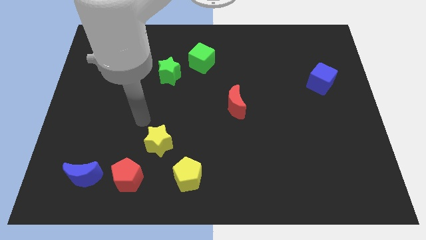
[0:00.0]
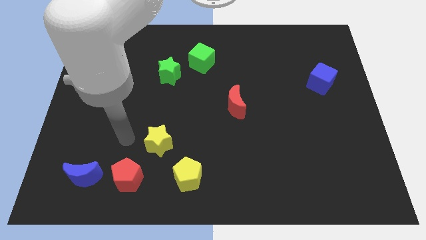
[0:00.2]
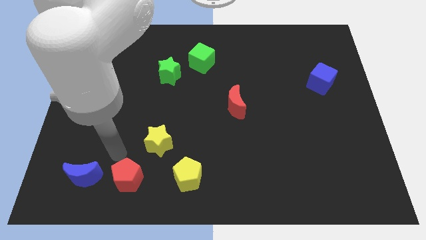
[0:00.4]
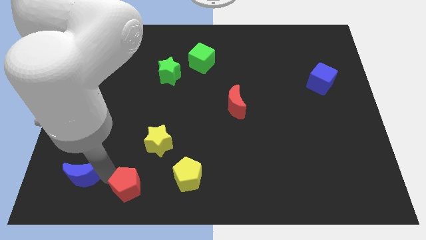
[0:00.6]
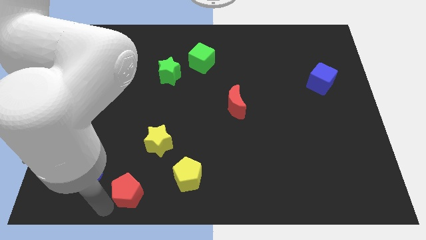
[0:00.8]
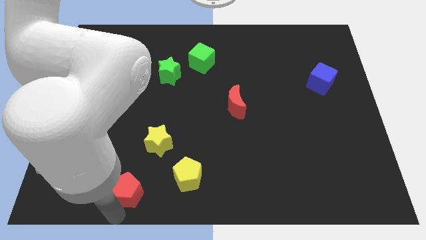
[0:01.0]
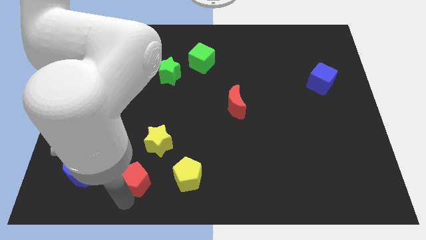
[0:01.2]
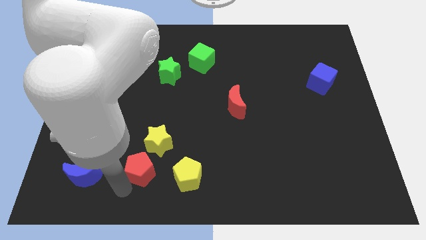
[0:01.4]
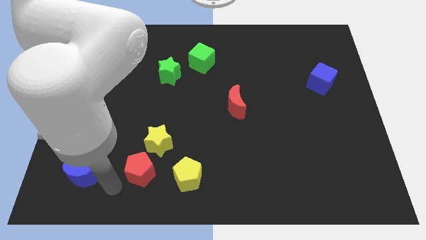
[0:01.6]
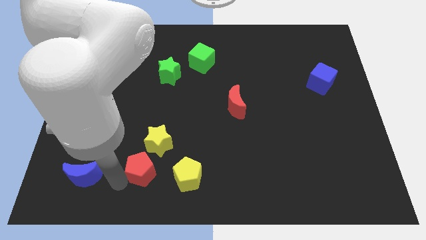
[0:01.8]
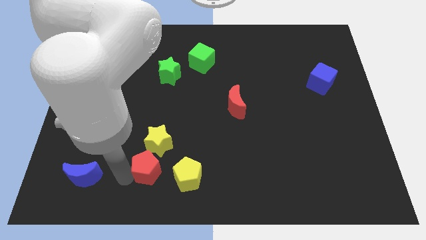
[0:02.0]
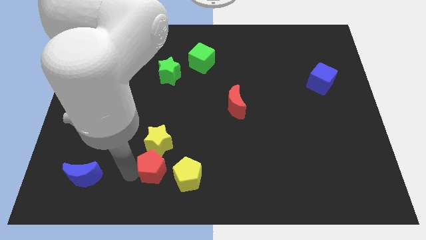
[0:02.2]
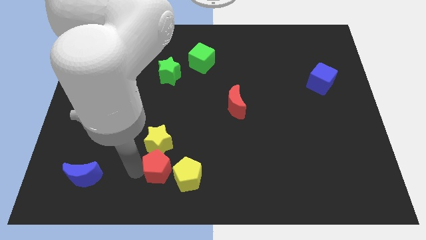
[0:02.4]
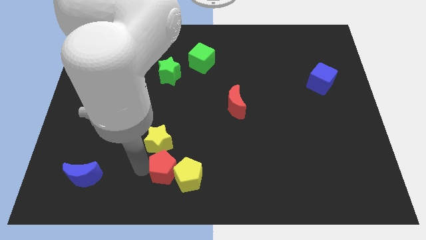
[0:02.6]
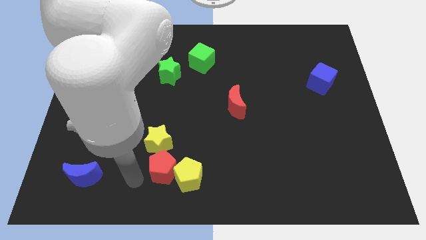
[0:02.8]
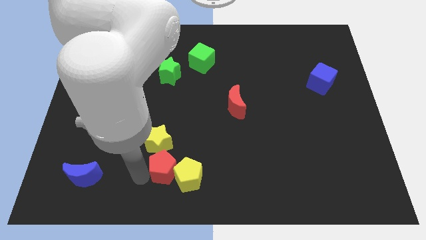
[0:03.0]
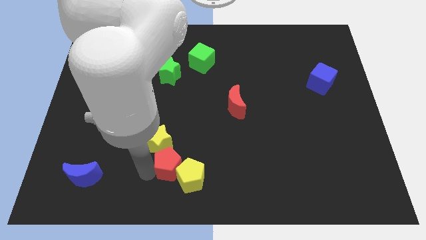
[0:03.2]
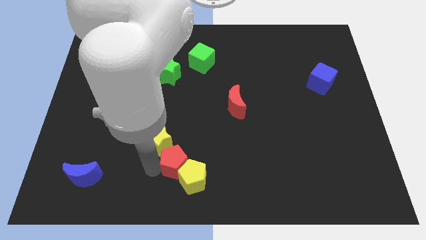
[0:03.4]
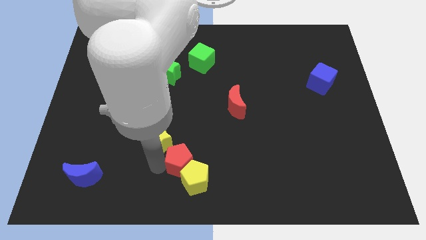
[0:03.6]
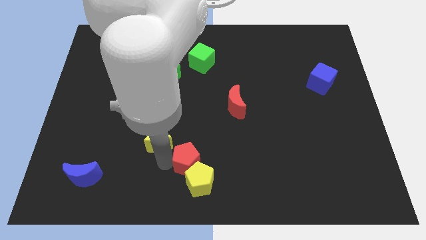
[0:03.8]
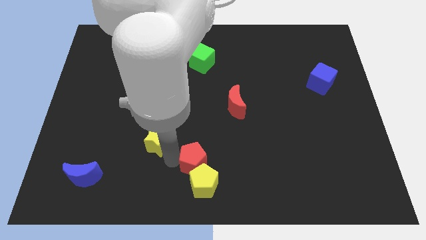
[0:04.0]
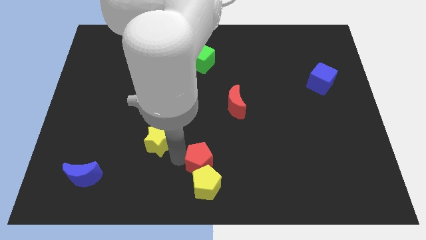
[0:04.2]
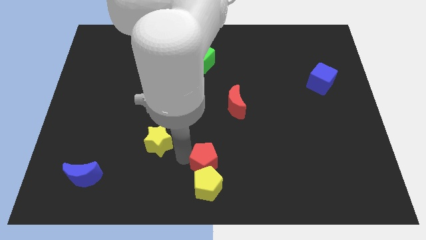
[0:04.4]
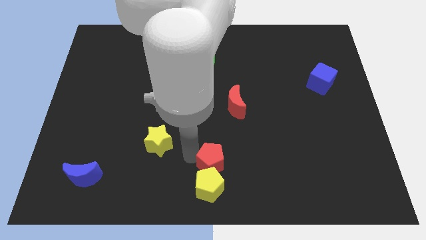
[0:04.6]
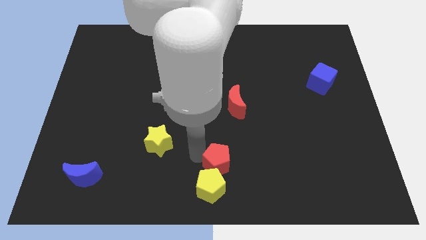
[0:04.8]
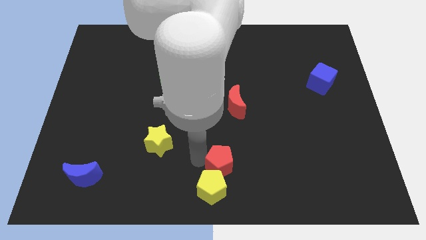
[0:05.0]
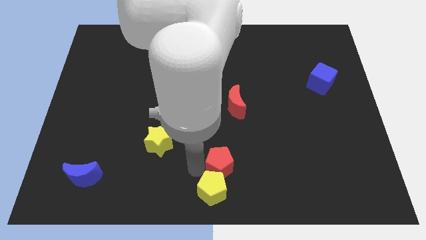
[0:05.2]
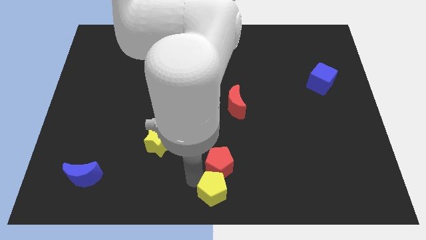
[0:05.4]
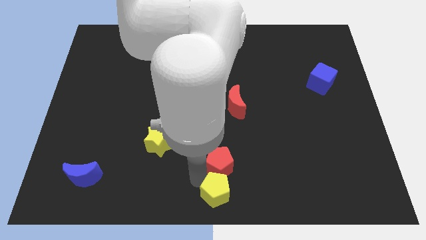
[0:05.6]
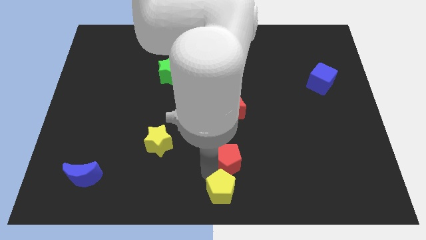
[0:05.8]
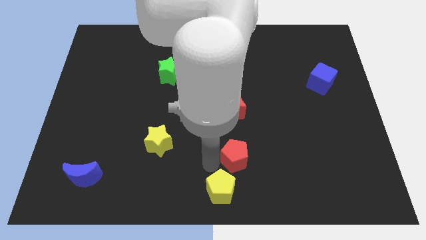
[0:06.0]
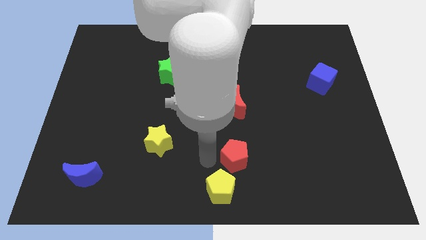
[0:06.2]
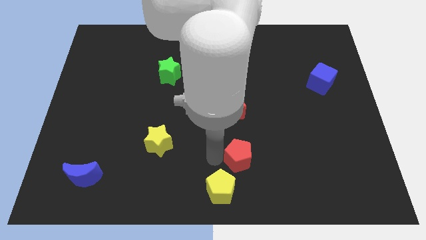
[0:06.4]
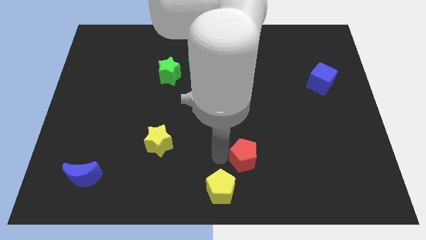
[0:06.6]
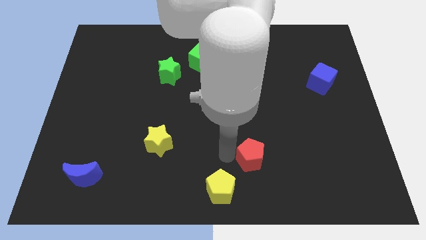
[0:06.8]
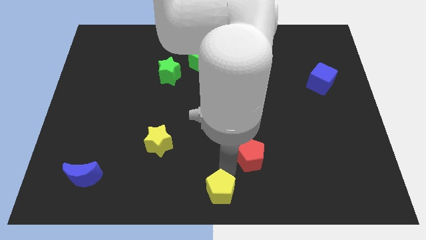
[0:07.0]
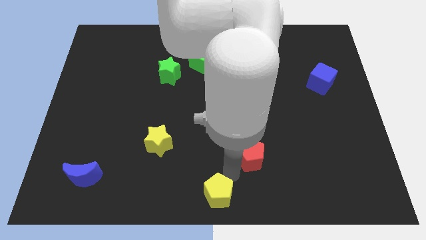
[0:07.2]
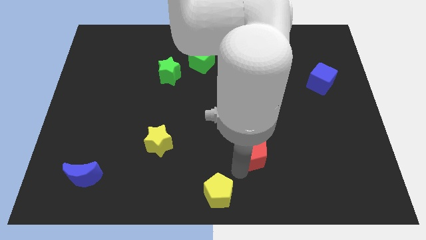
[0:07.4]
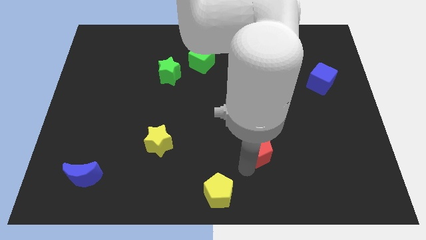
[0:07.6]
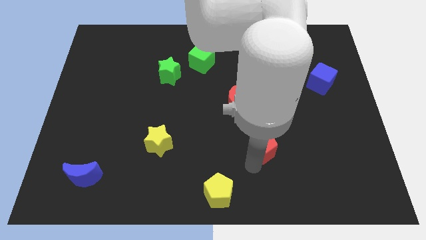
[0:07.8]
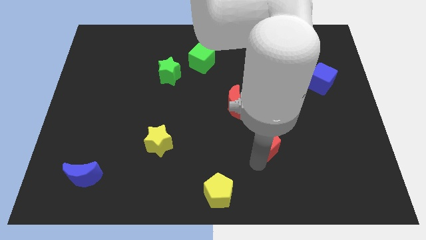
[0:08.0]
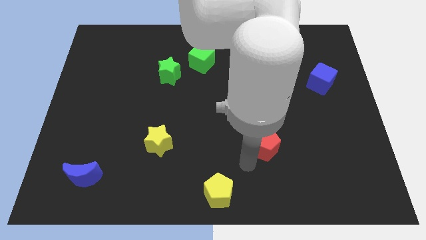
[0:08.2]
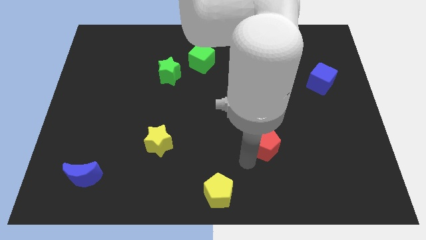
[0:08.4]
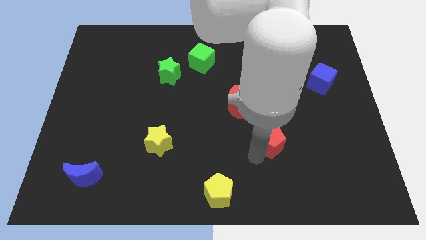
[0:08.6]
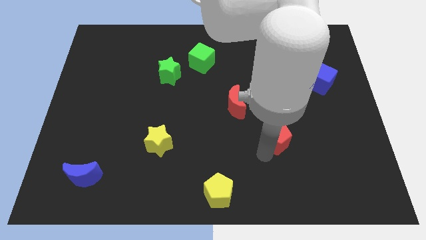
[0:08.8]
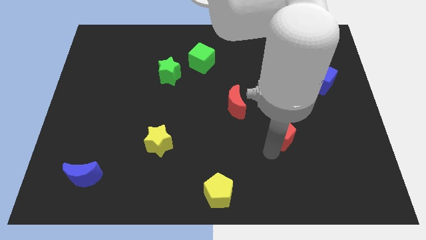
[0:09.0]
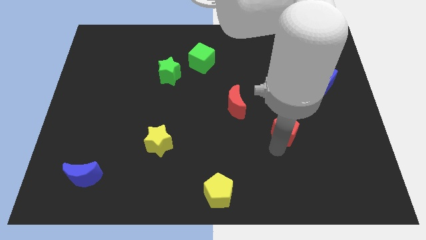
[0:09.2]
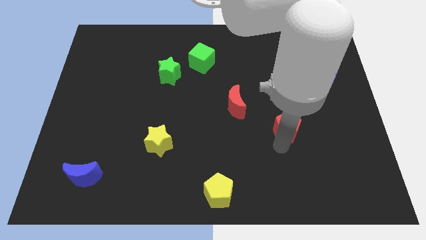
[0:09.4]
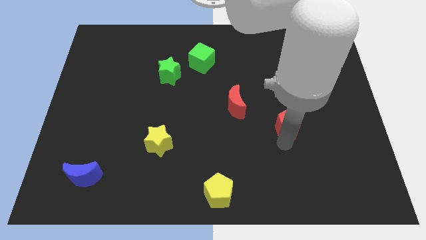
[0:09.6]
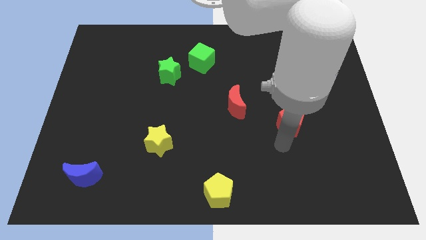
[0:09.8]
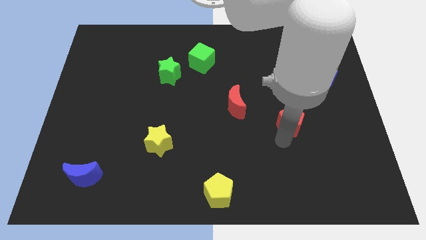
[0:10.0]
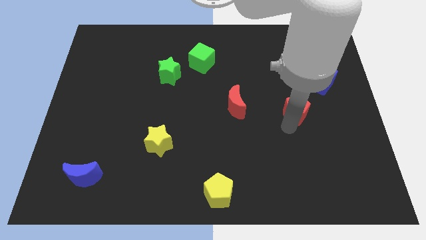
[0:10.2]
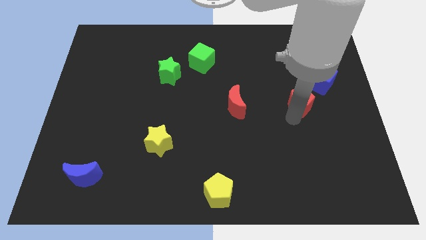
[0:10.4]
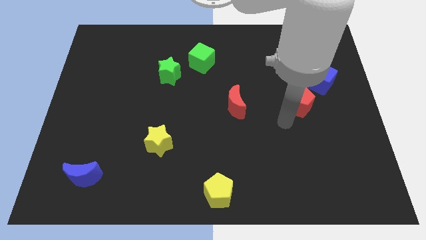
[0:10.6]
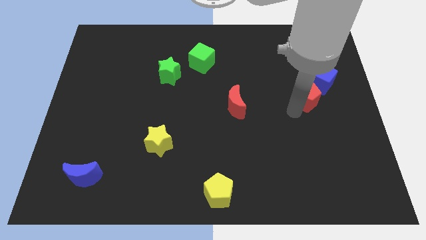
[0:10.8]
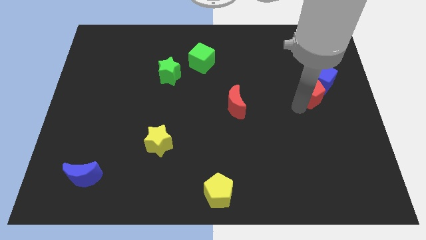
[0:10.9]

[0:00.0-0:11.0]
slide the red pentagon close to the blue cube

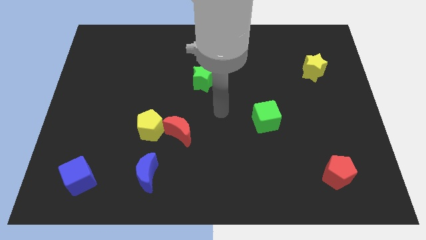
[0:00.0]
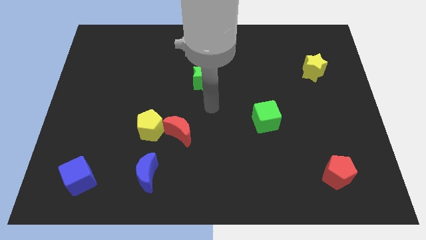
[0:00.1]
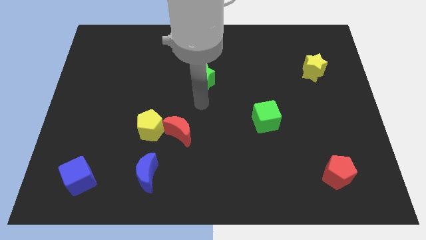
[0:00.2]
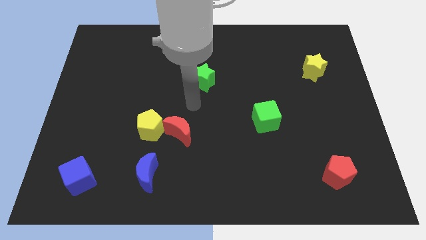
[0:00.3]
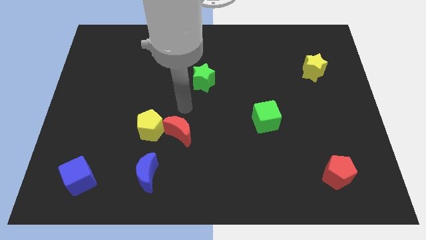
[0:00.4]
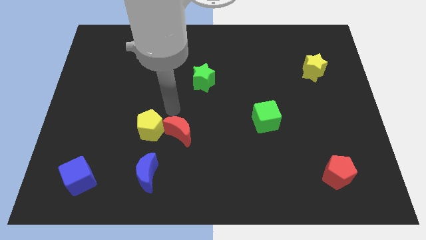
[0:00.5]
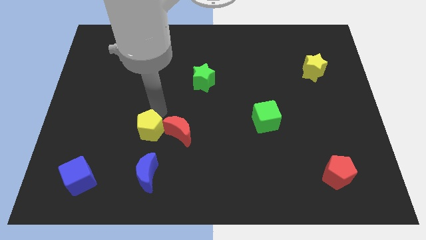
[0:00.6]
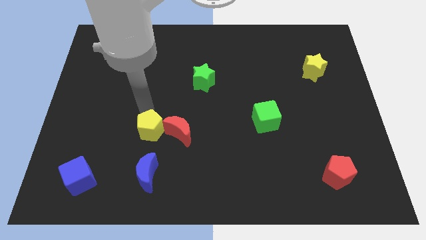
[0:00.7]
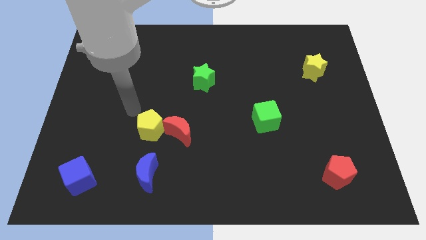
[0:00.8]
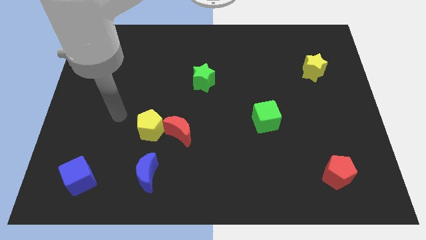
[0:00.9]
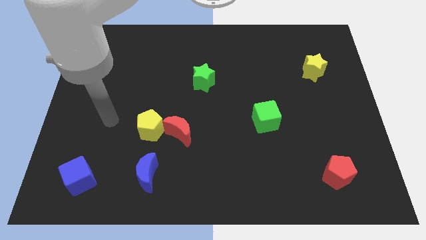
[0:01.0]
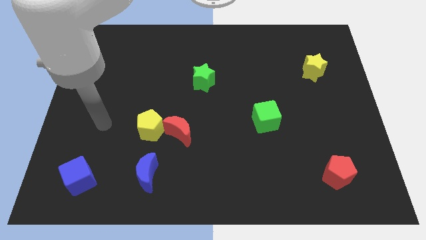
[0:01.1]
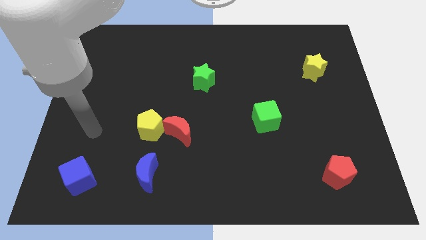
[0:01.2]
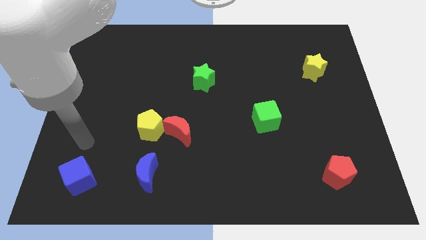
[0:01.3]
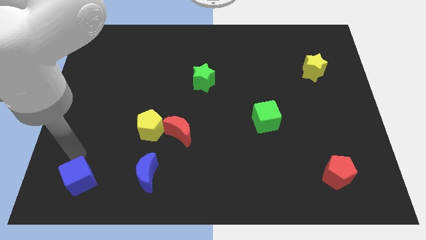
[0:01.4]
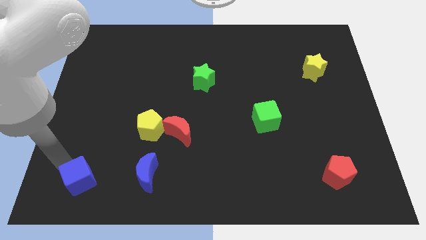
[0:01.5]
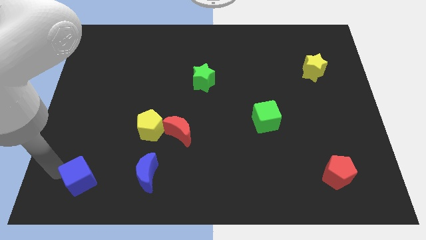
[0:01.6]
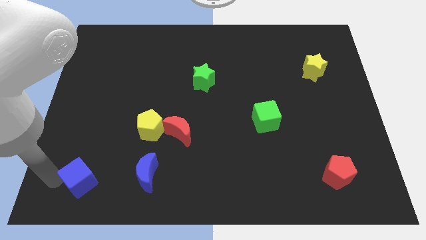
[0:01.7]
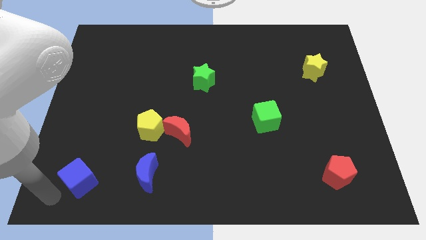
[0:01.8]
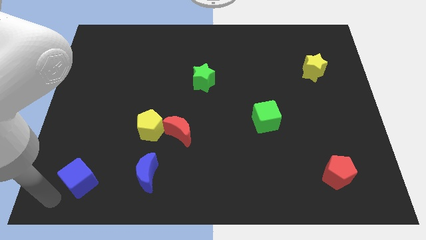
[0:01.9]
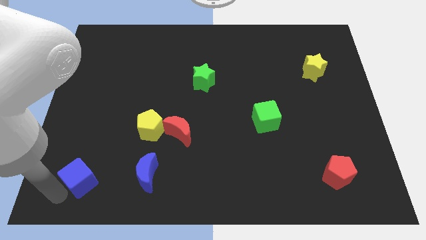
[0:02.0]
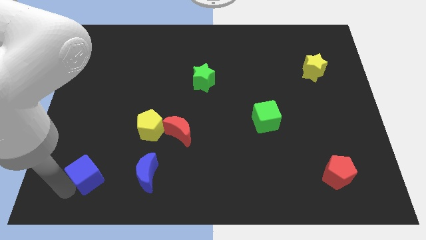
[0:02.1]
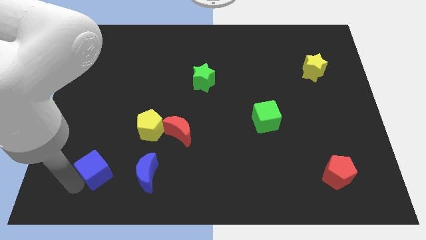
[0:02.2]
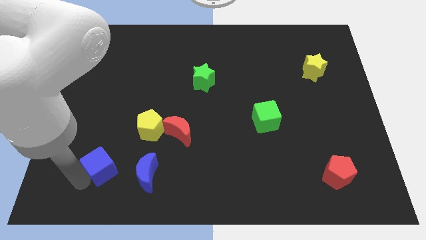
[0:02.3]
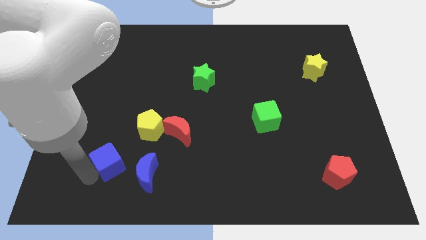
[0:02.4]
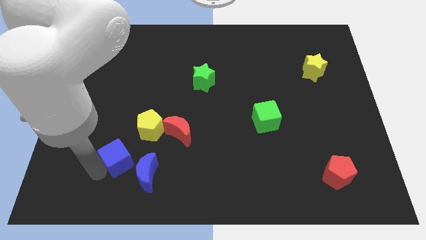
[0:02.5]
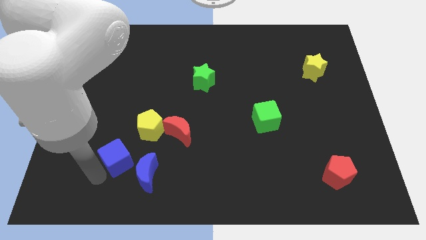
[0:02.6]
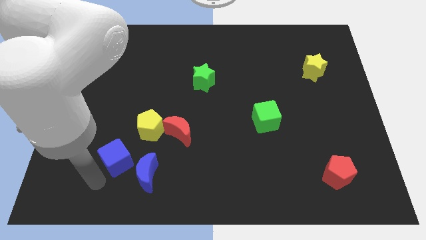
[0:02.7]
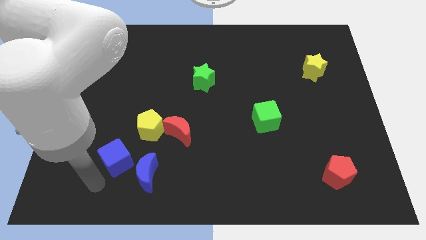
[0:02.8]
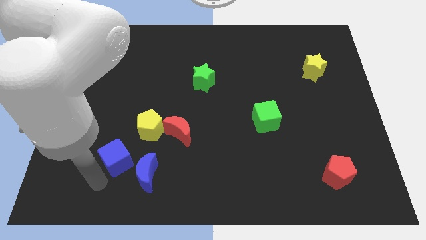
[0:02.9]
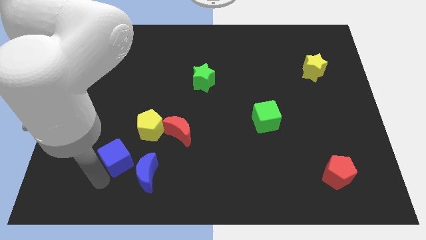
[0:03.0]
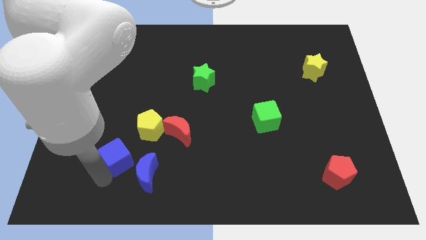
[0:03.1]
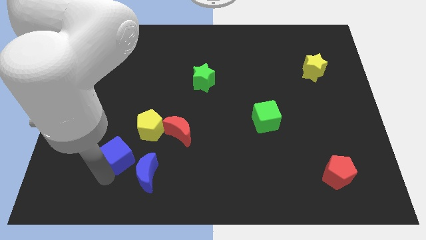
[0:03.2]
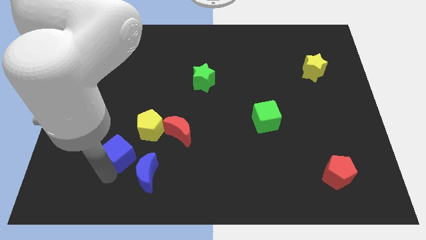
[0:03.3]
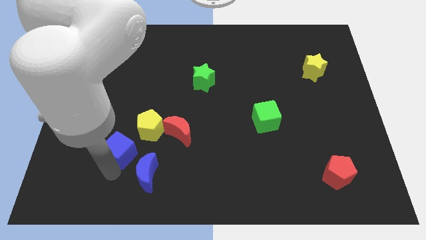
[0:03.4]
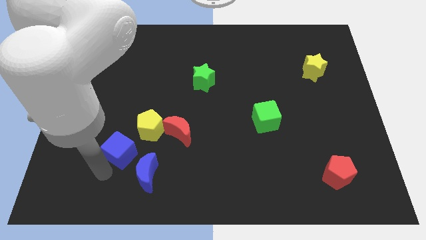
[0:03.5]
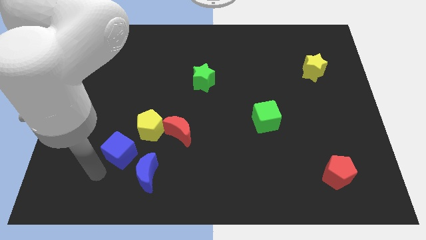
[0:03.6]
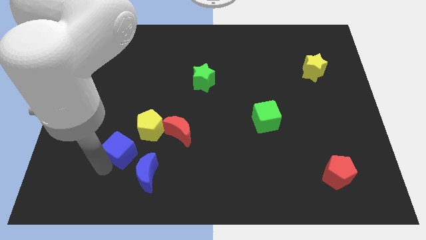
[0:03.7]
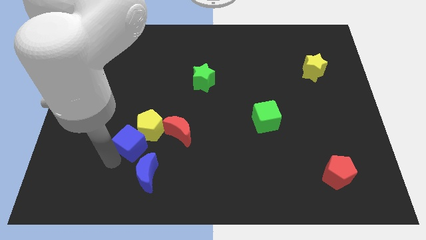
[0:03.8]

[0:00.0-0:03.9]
push the blue cube to the yellow pentagon
